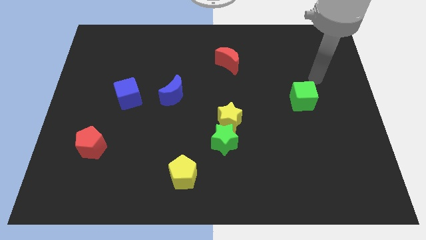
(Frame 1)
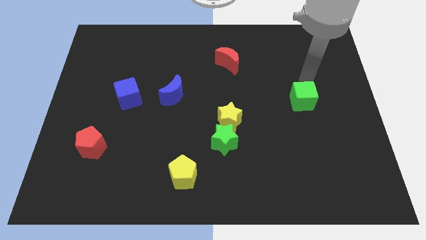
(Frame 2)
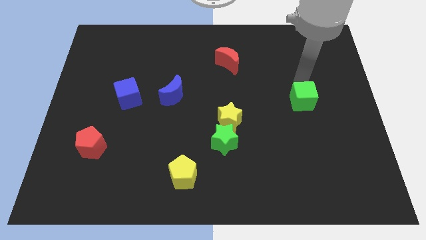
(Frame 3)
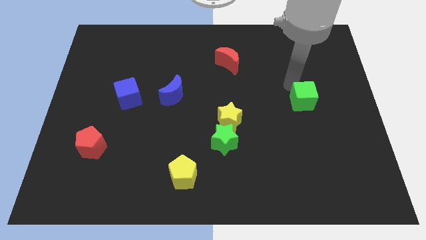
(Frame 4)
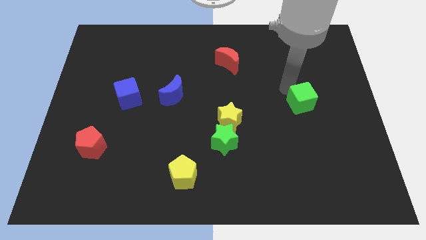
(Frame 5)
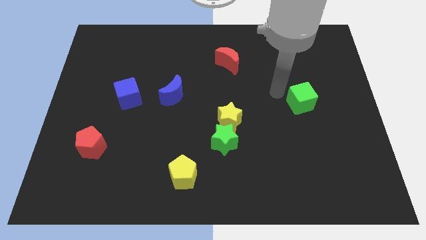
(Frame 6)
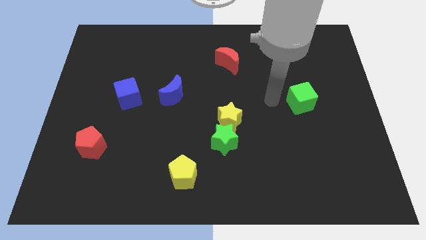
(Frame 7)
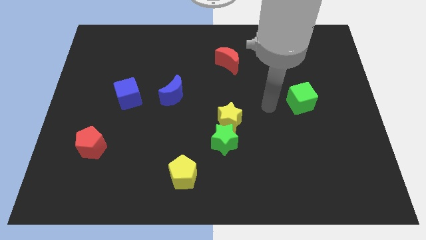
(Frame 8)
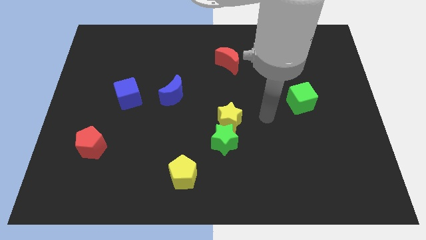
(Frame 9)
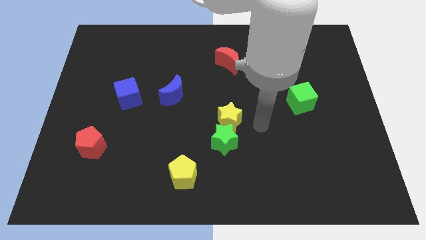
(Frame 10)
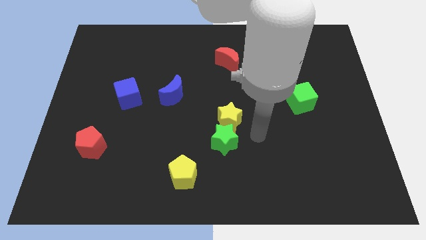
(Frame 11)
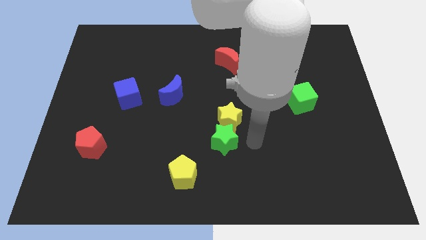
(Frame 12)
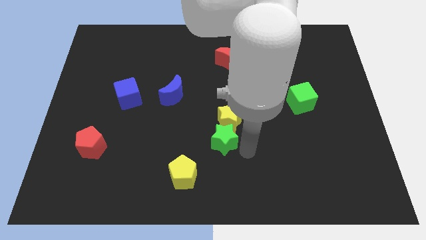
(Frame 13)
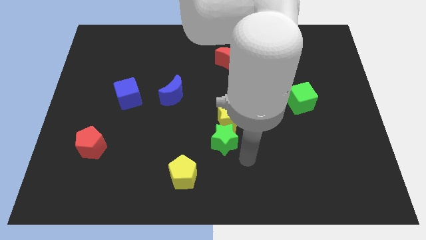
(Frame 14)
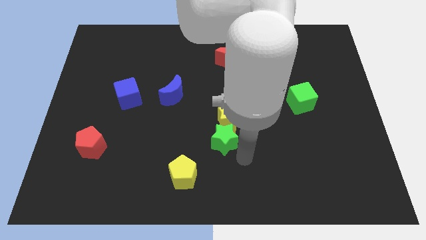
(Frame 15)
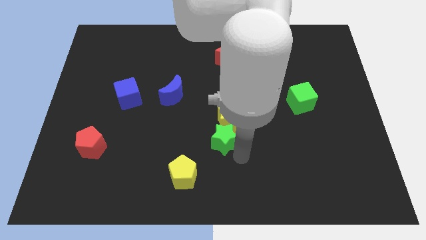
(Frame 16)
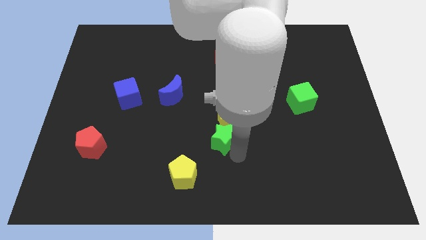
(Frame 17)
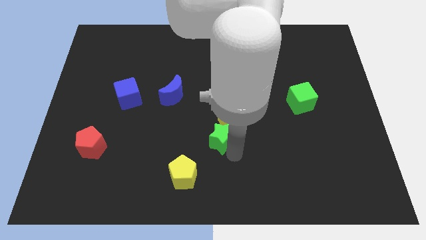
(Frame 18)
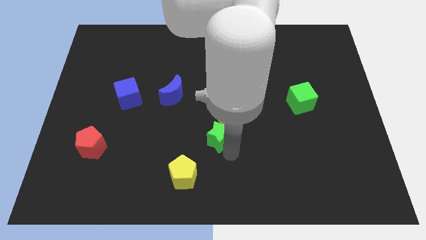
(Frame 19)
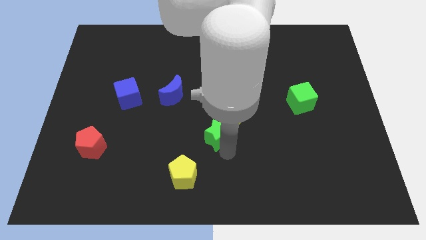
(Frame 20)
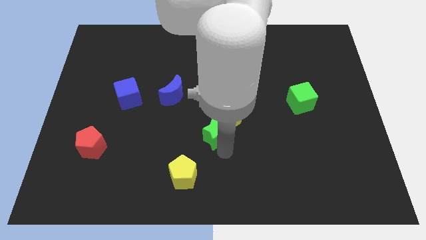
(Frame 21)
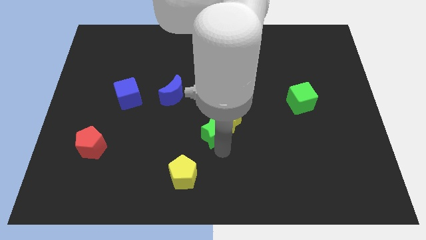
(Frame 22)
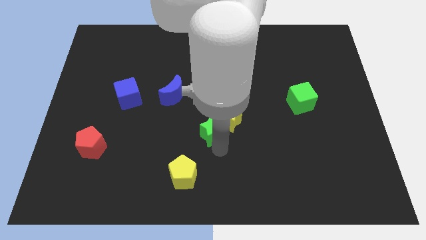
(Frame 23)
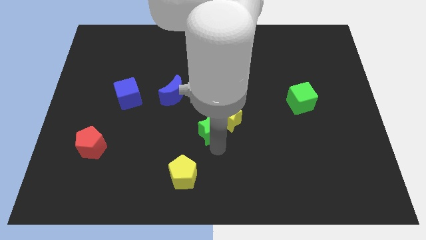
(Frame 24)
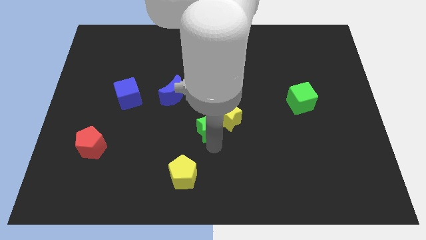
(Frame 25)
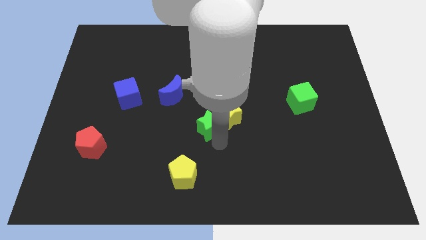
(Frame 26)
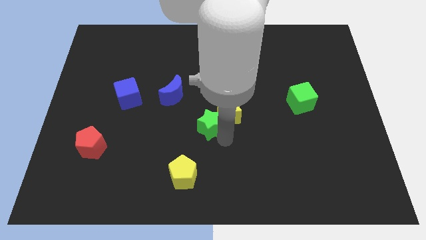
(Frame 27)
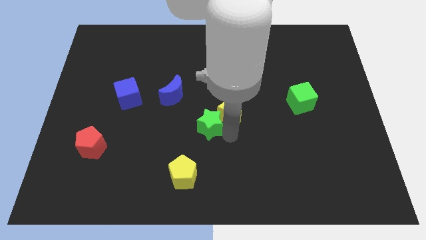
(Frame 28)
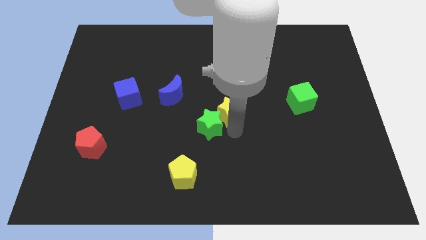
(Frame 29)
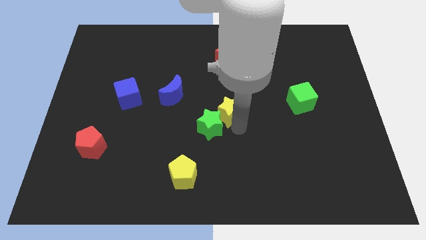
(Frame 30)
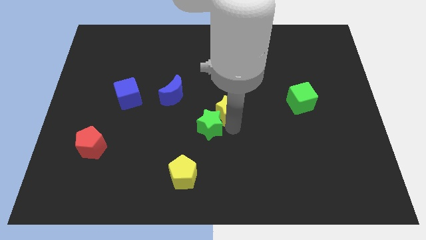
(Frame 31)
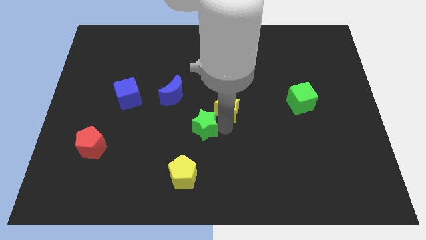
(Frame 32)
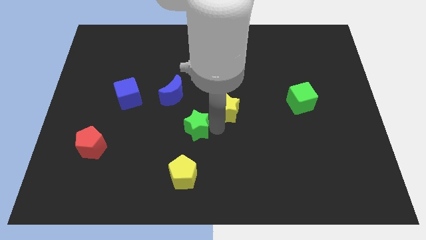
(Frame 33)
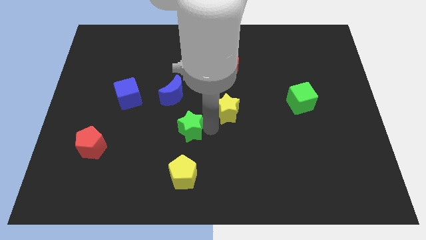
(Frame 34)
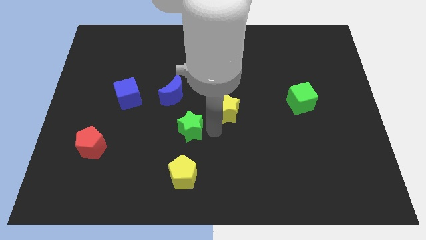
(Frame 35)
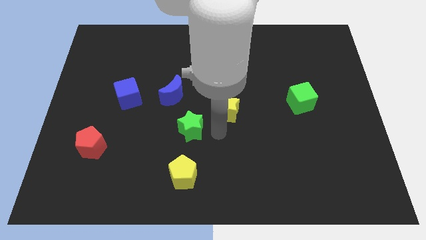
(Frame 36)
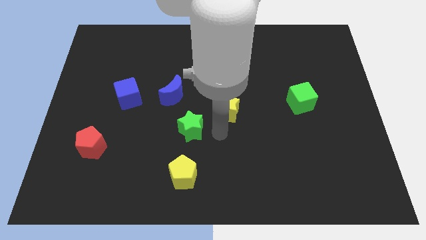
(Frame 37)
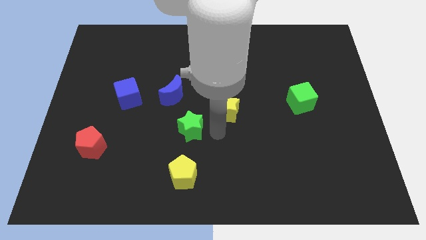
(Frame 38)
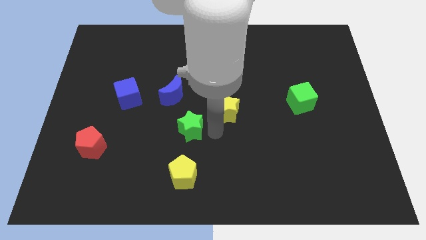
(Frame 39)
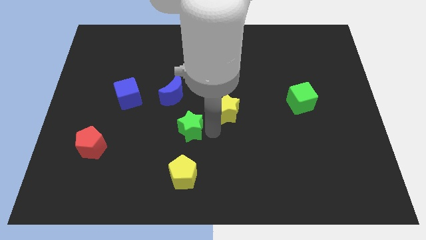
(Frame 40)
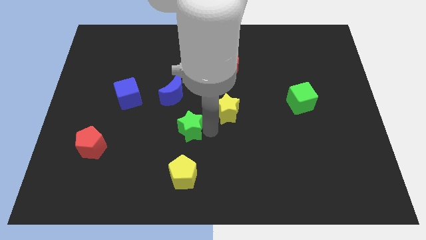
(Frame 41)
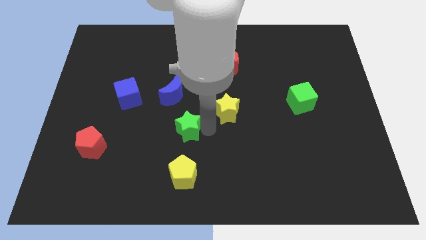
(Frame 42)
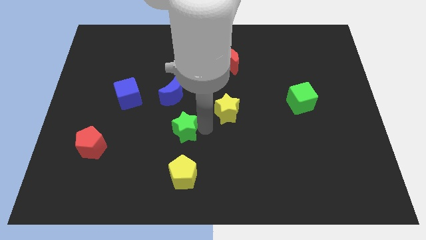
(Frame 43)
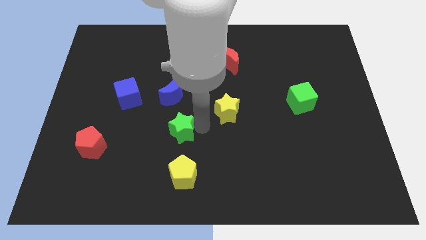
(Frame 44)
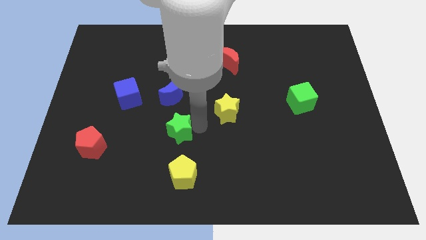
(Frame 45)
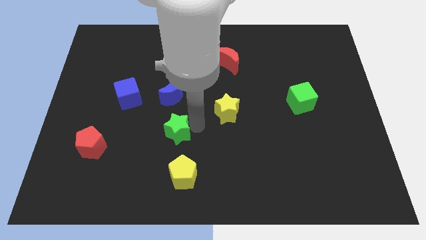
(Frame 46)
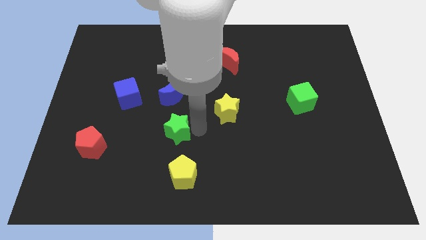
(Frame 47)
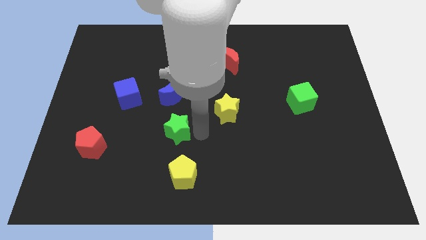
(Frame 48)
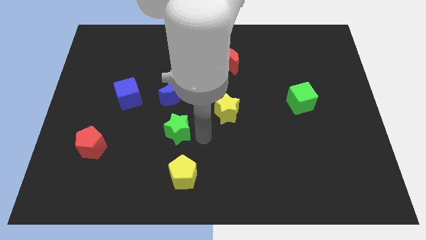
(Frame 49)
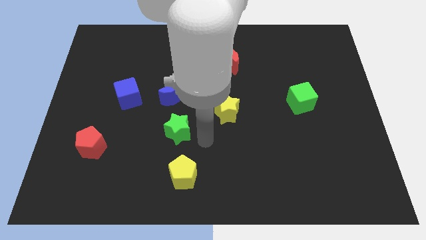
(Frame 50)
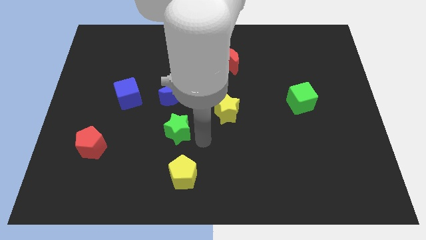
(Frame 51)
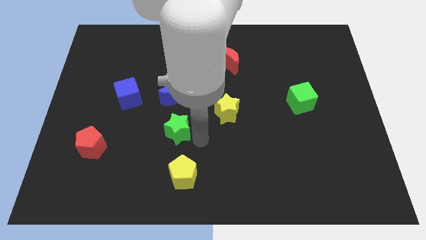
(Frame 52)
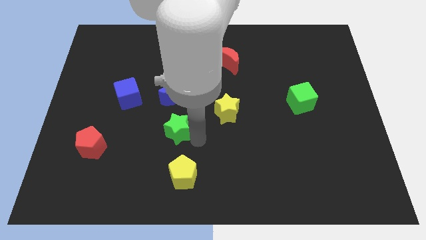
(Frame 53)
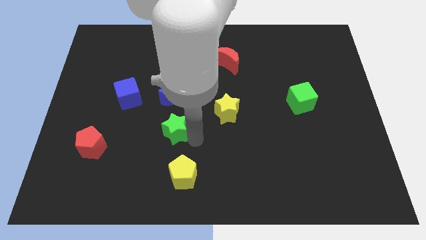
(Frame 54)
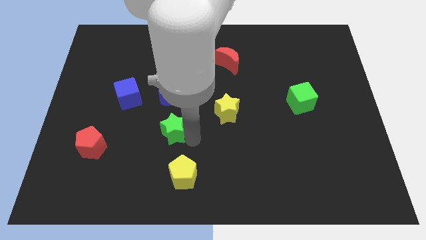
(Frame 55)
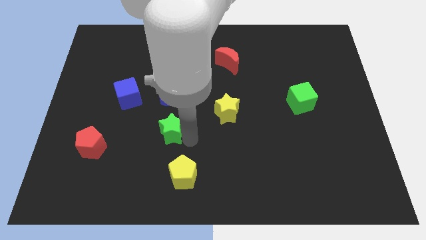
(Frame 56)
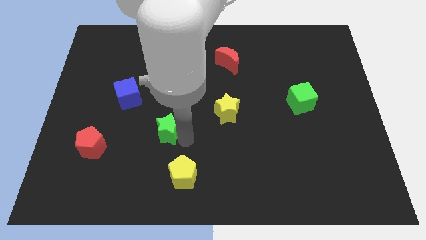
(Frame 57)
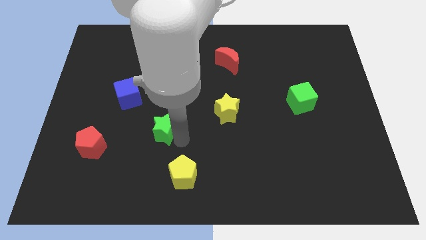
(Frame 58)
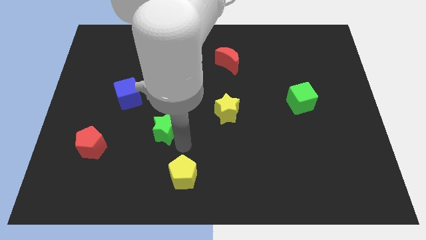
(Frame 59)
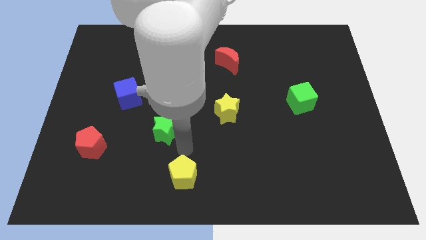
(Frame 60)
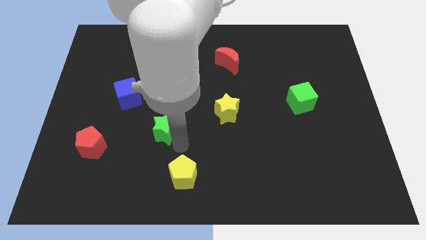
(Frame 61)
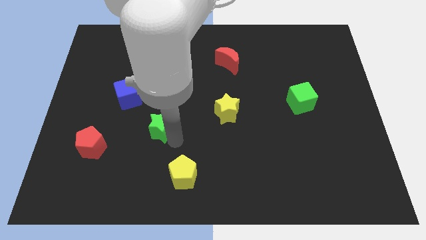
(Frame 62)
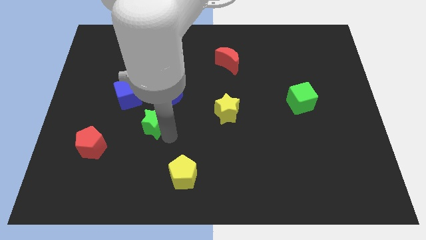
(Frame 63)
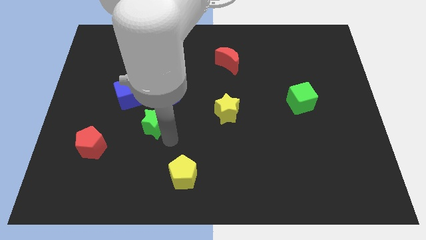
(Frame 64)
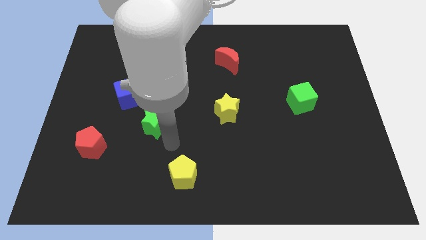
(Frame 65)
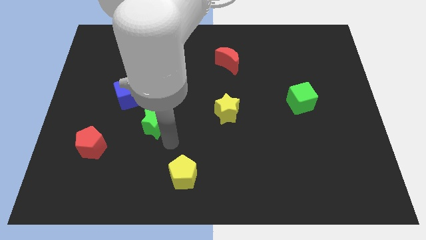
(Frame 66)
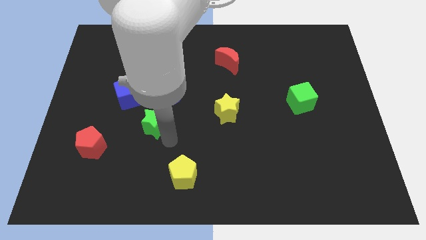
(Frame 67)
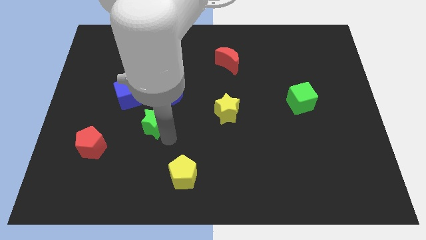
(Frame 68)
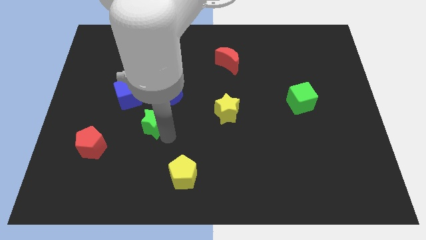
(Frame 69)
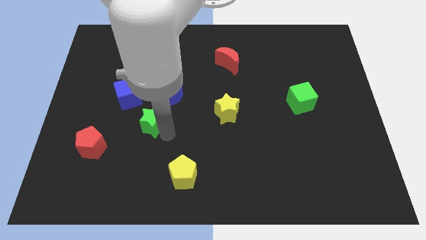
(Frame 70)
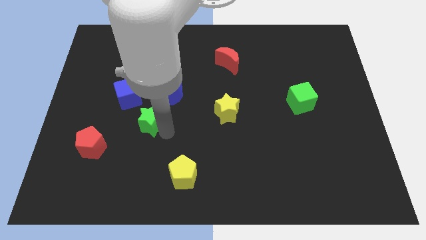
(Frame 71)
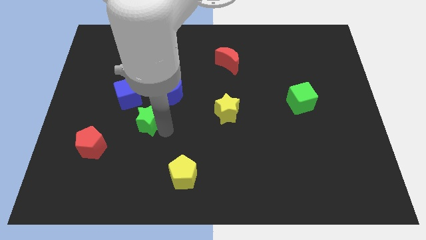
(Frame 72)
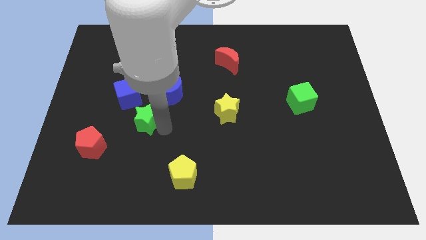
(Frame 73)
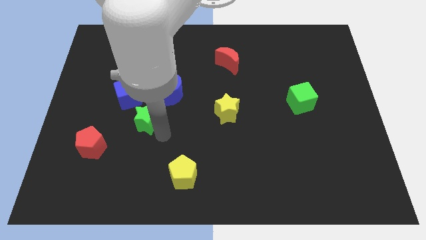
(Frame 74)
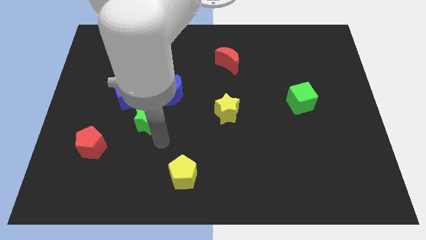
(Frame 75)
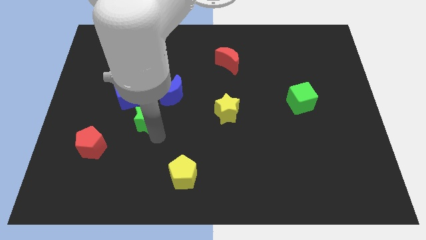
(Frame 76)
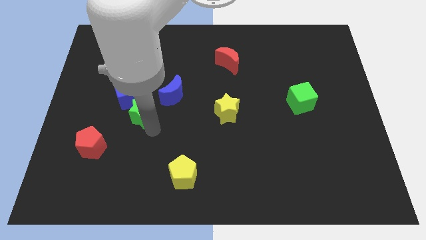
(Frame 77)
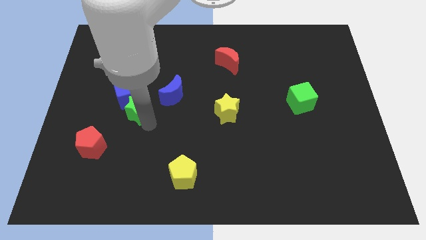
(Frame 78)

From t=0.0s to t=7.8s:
push the green star towards the blue cube

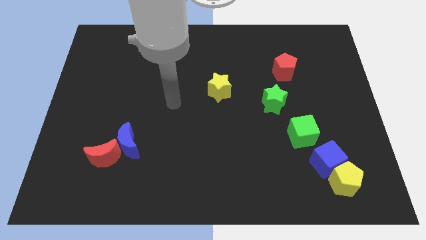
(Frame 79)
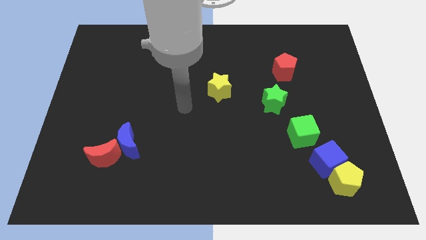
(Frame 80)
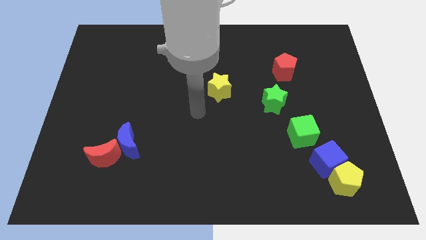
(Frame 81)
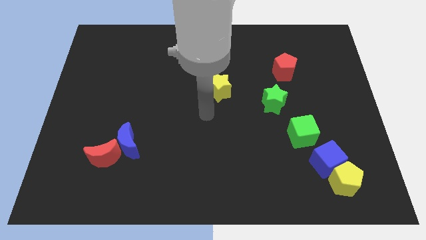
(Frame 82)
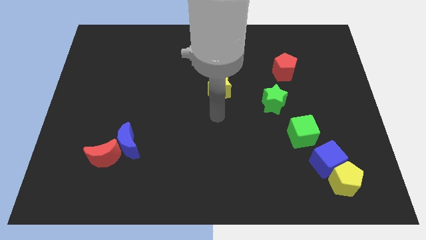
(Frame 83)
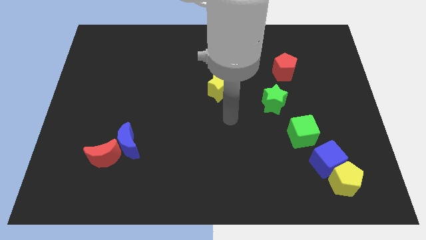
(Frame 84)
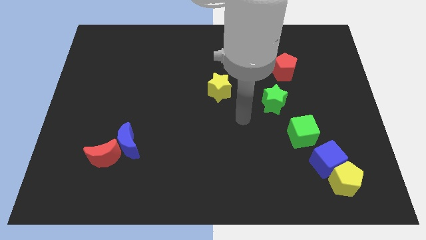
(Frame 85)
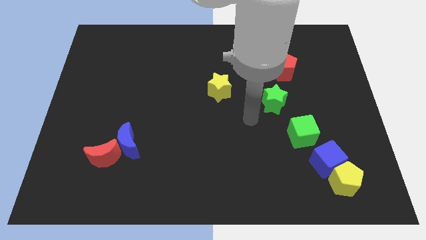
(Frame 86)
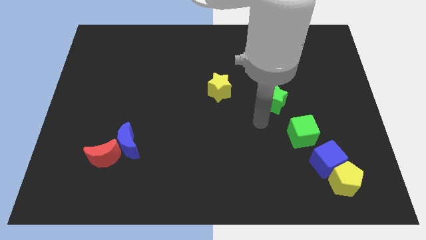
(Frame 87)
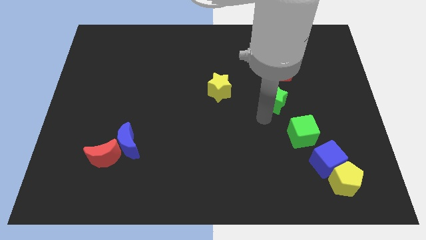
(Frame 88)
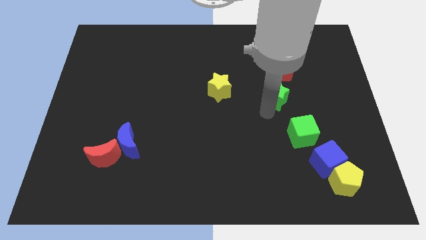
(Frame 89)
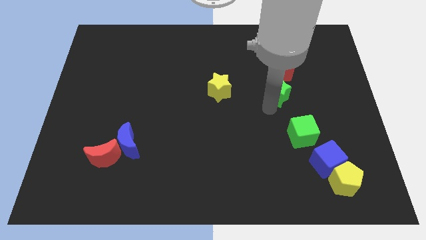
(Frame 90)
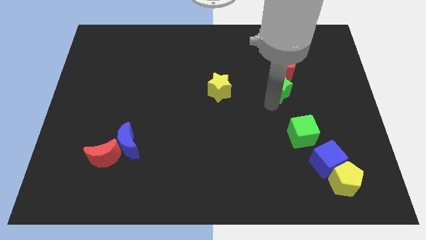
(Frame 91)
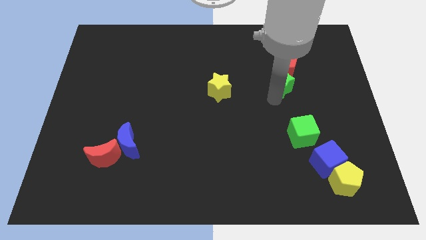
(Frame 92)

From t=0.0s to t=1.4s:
move the green star next to the red pentagon
